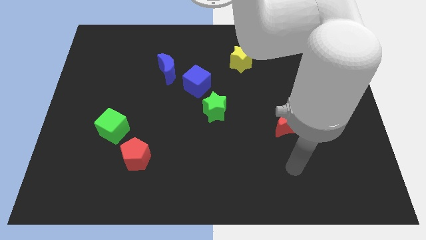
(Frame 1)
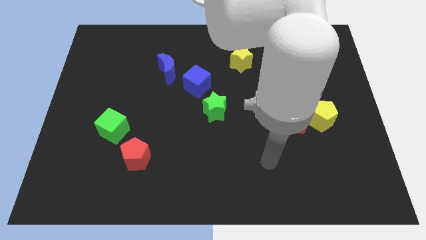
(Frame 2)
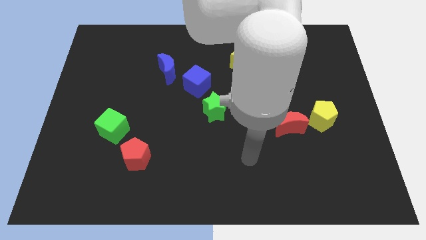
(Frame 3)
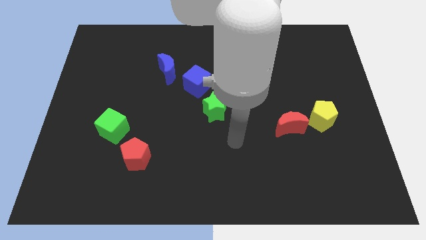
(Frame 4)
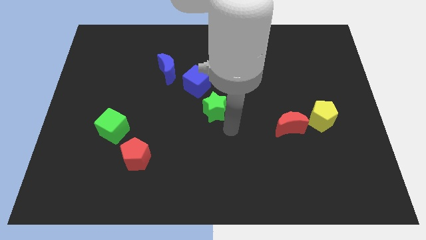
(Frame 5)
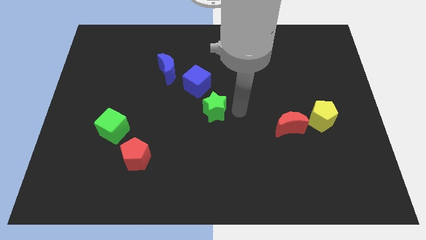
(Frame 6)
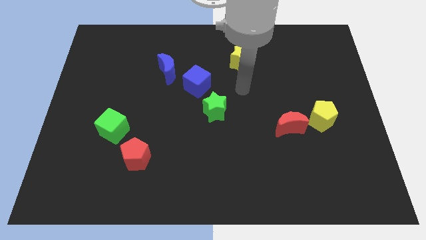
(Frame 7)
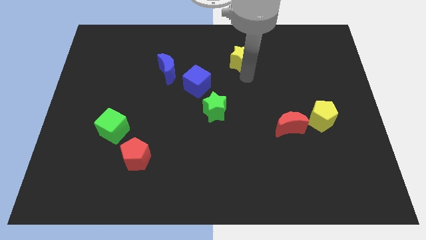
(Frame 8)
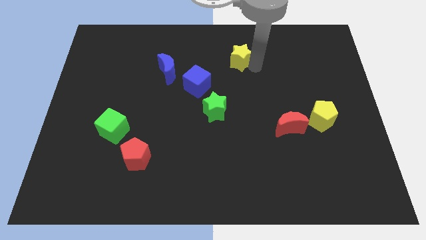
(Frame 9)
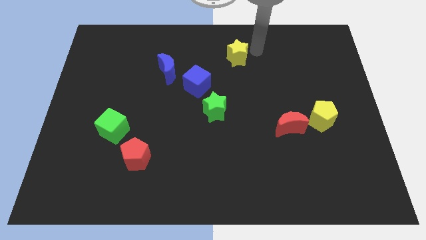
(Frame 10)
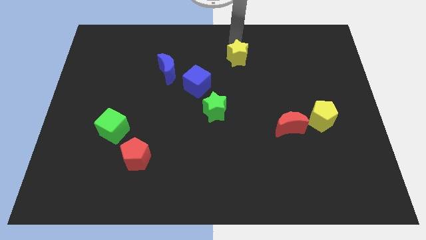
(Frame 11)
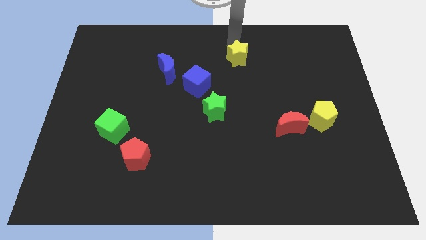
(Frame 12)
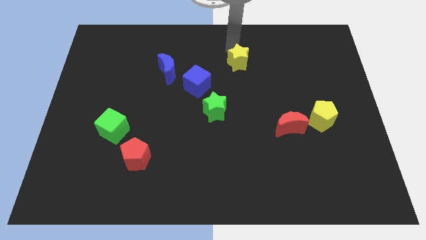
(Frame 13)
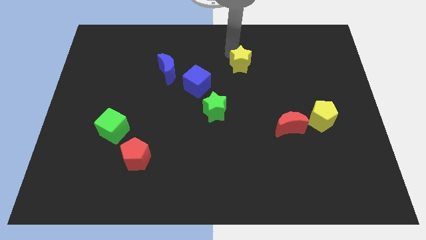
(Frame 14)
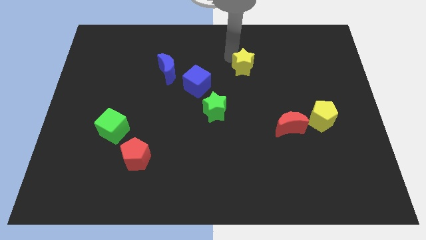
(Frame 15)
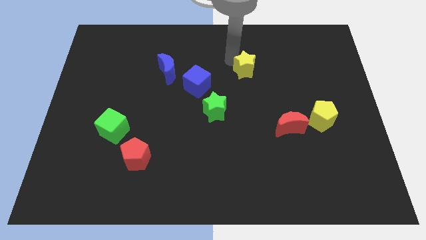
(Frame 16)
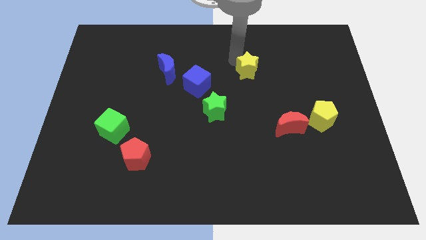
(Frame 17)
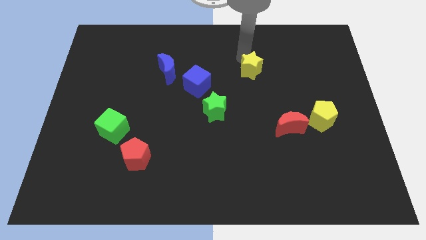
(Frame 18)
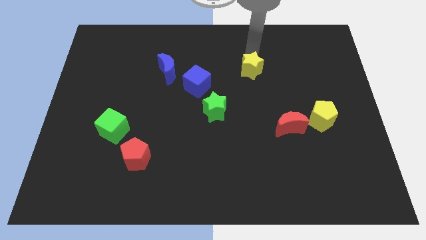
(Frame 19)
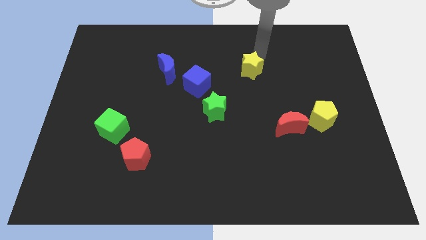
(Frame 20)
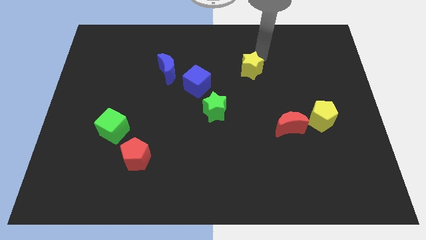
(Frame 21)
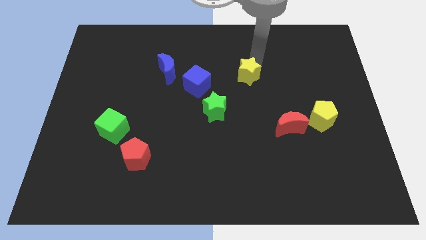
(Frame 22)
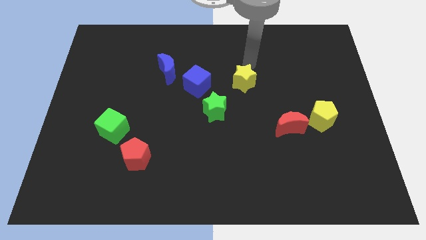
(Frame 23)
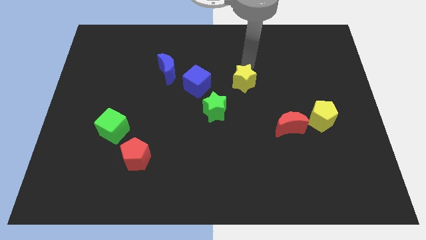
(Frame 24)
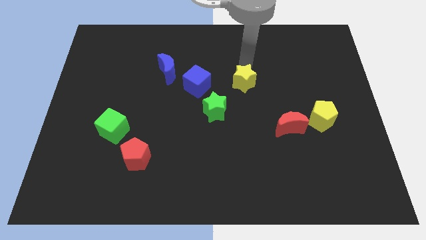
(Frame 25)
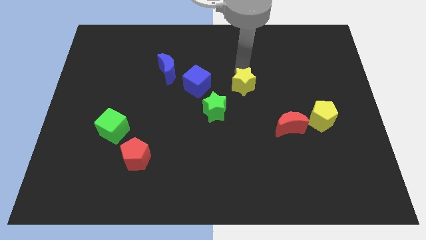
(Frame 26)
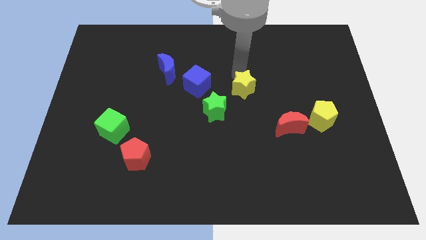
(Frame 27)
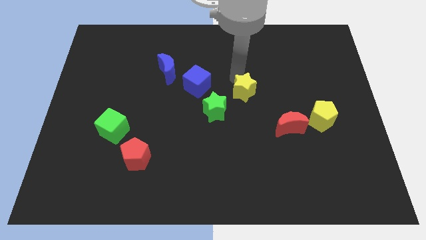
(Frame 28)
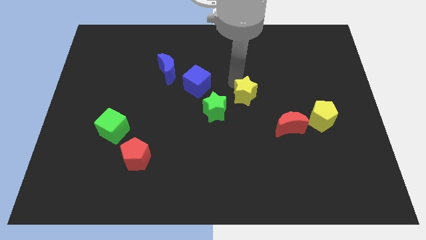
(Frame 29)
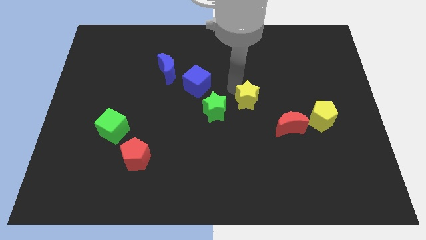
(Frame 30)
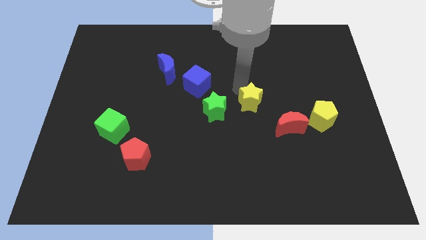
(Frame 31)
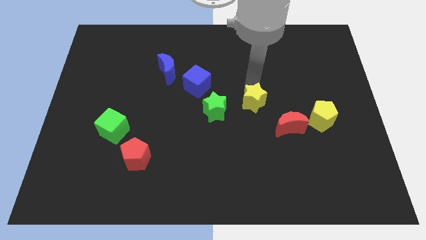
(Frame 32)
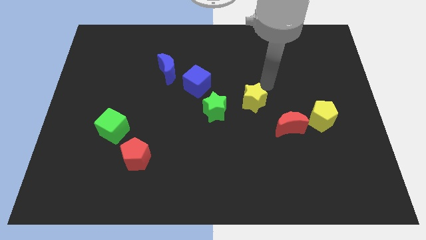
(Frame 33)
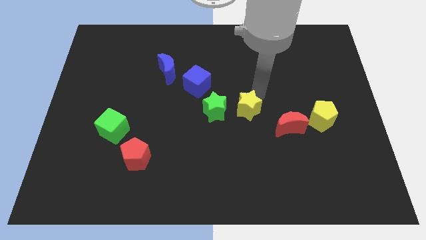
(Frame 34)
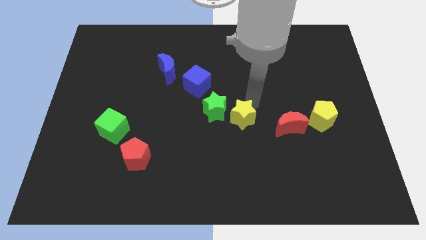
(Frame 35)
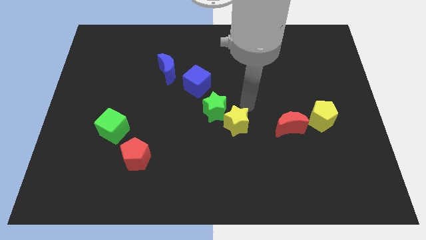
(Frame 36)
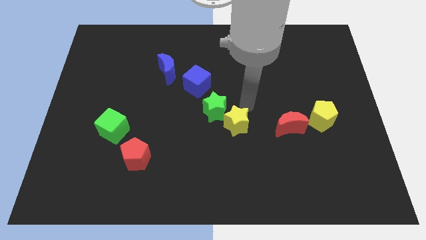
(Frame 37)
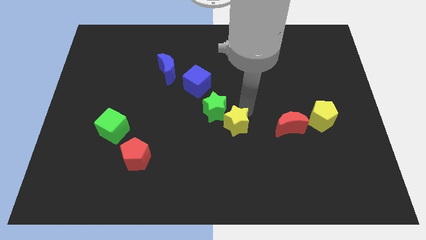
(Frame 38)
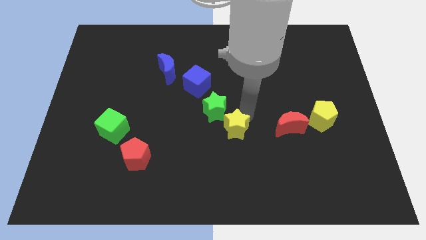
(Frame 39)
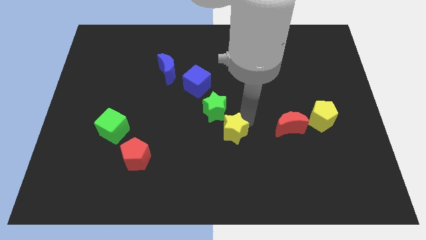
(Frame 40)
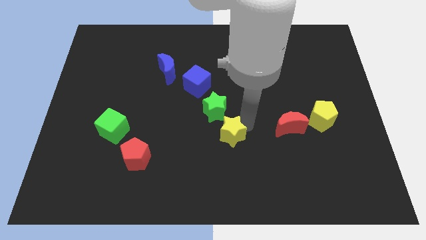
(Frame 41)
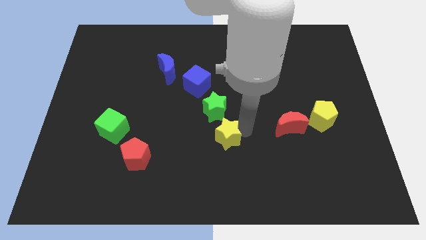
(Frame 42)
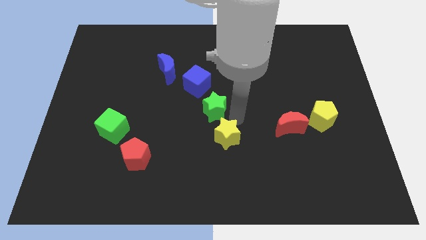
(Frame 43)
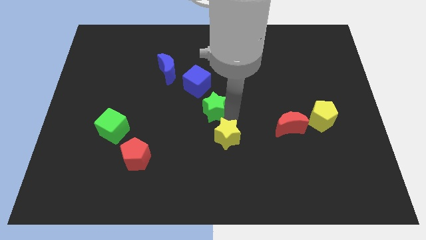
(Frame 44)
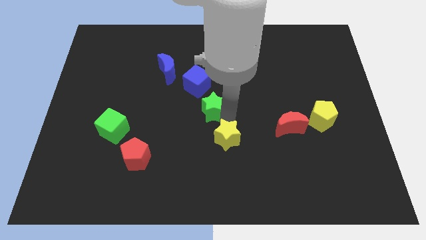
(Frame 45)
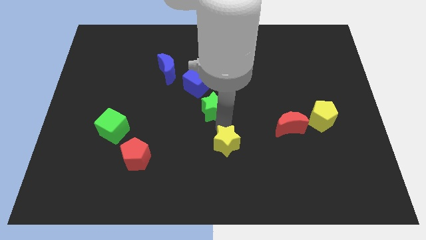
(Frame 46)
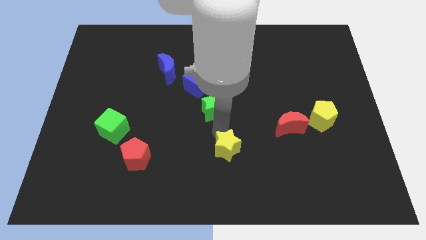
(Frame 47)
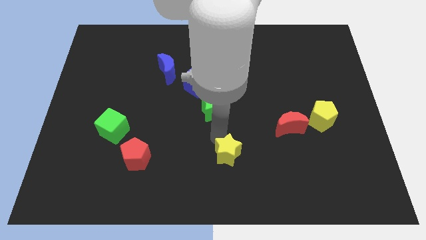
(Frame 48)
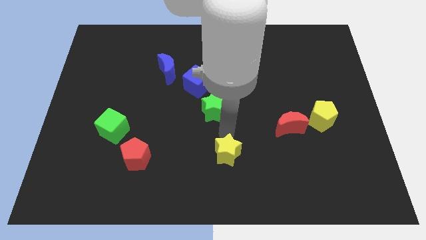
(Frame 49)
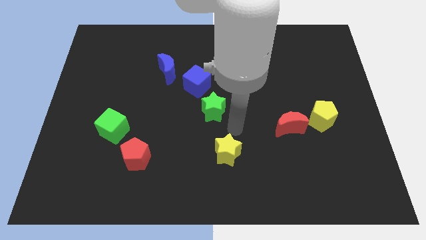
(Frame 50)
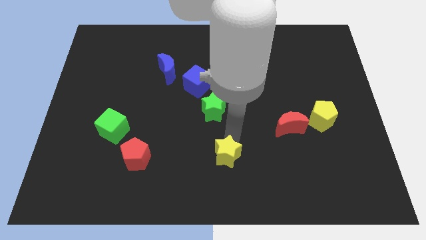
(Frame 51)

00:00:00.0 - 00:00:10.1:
push the yellow star to the bottom
